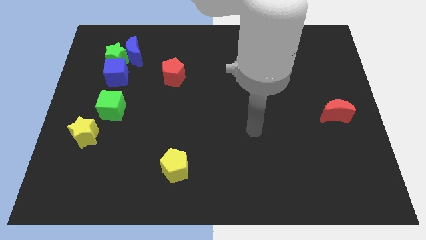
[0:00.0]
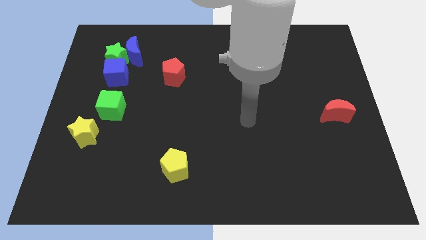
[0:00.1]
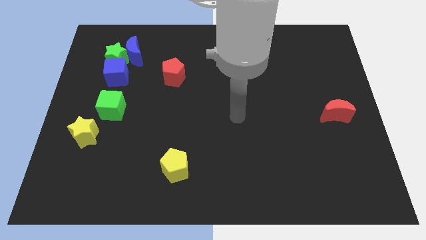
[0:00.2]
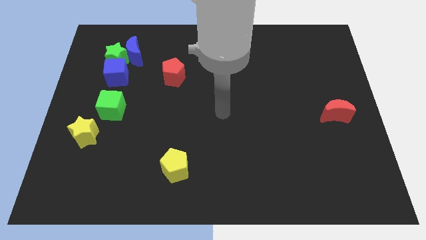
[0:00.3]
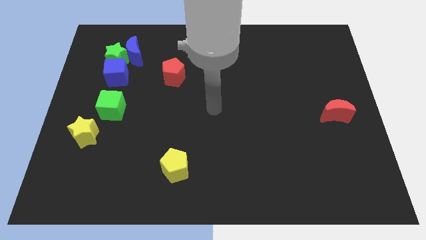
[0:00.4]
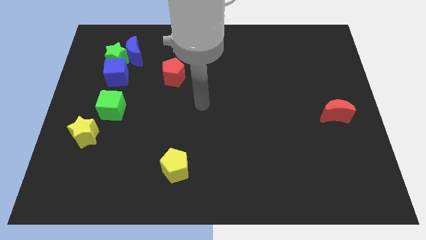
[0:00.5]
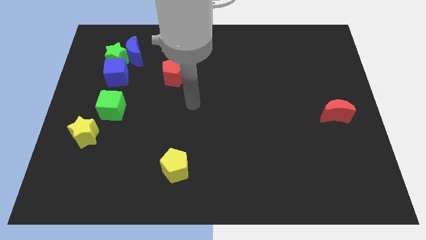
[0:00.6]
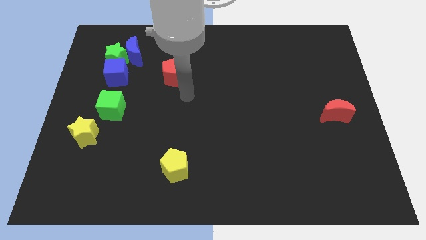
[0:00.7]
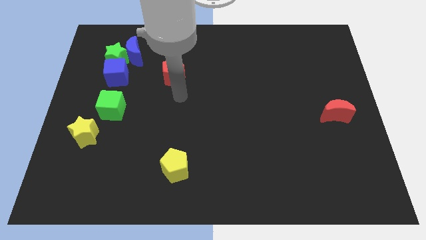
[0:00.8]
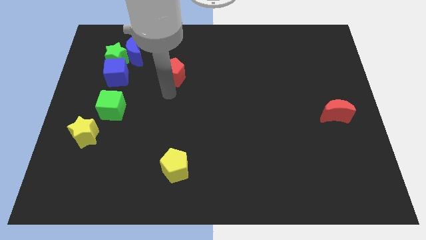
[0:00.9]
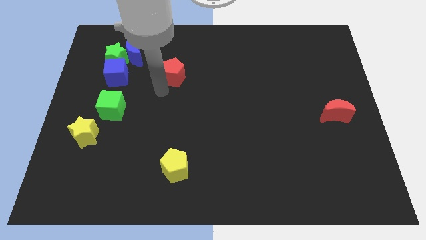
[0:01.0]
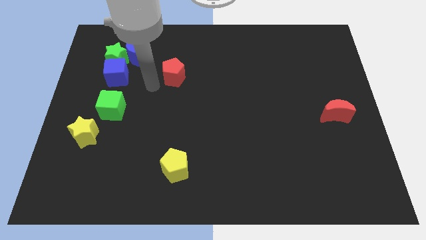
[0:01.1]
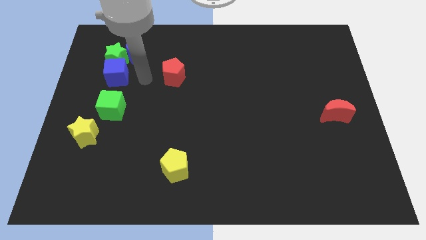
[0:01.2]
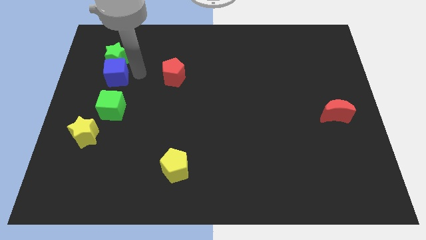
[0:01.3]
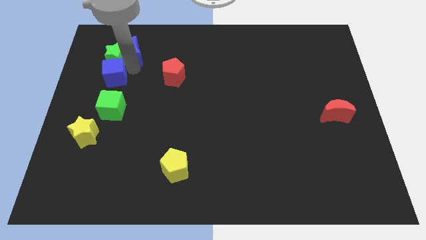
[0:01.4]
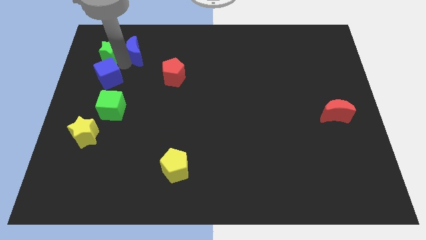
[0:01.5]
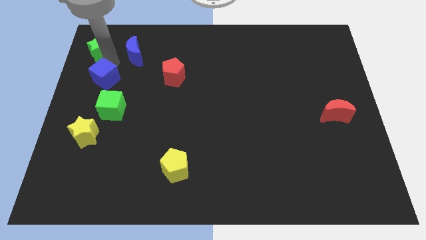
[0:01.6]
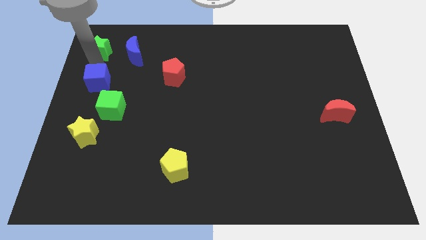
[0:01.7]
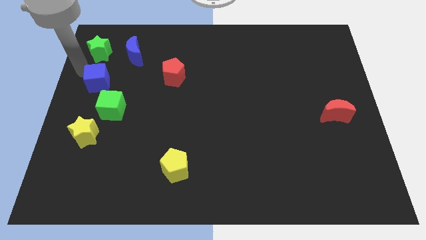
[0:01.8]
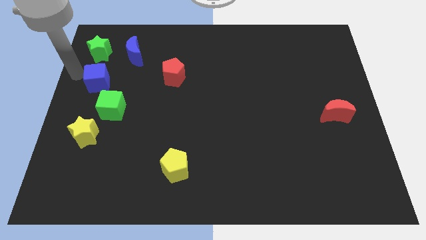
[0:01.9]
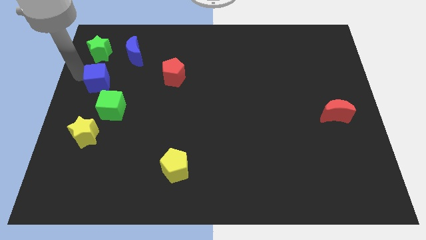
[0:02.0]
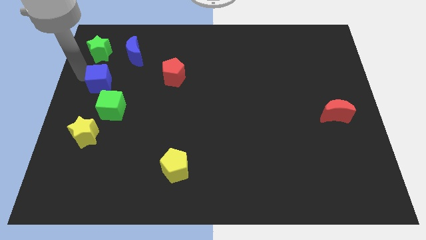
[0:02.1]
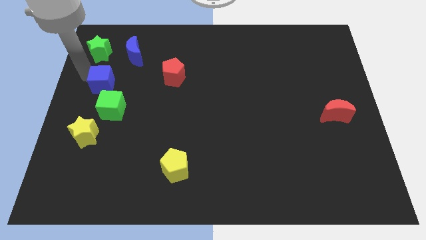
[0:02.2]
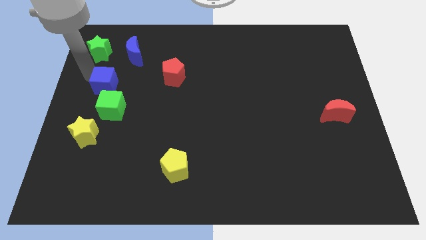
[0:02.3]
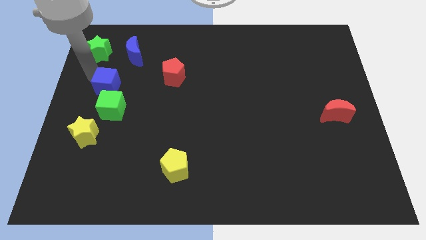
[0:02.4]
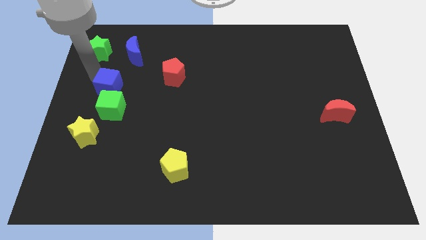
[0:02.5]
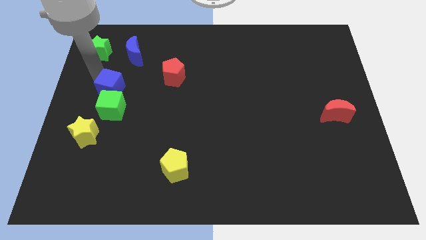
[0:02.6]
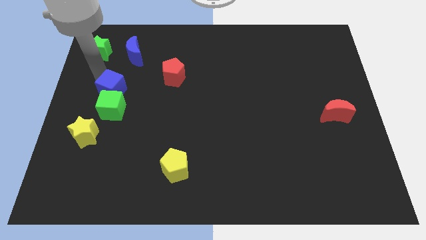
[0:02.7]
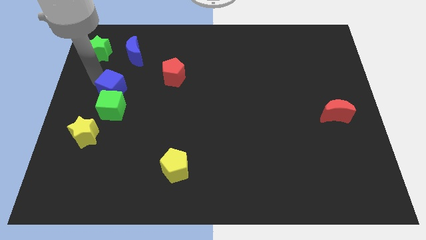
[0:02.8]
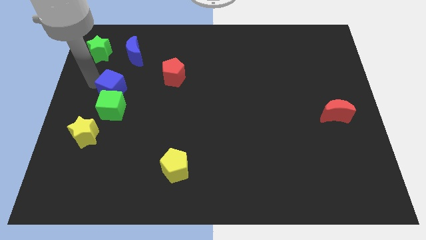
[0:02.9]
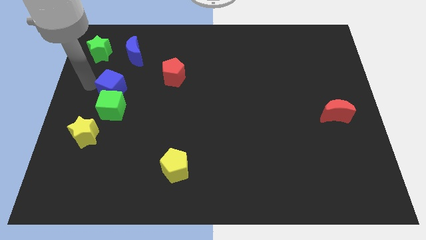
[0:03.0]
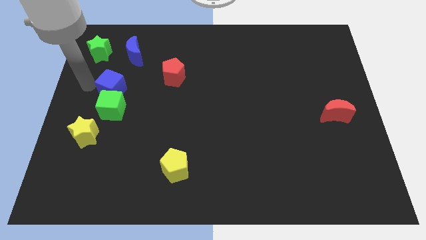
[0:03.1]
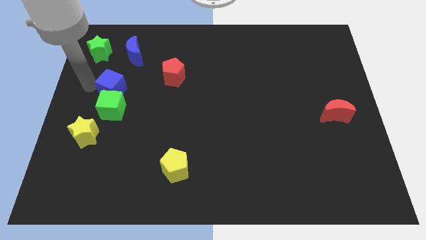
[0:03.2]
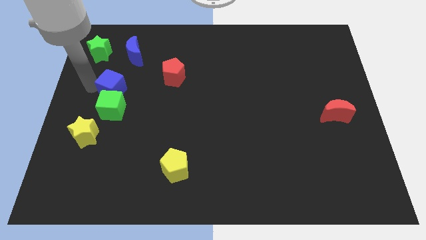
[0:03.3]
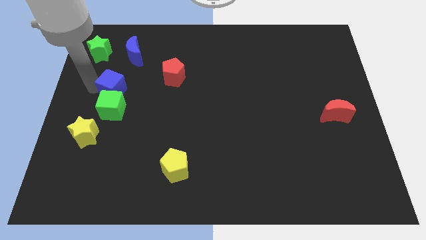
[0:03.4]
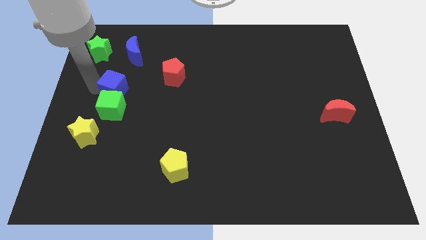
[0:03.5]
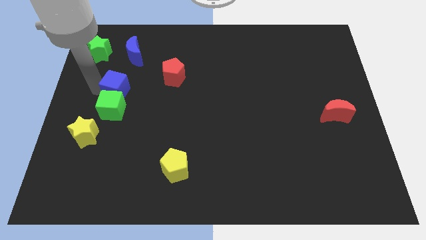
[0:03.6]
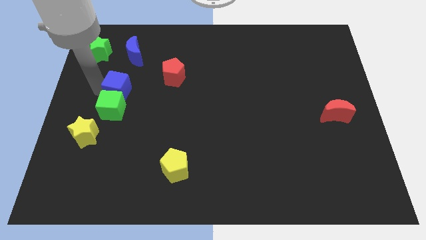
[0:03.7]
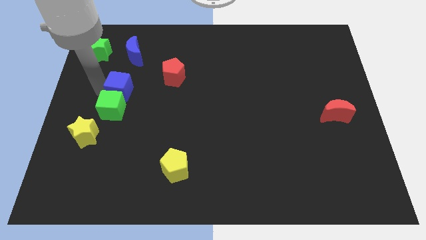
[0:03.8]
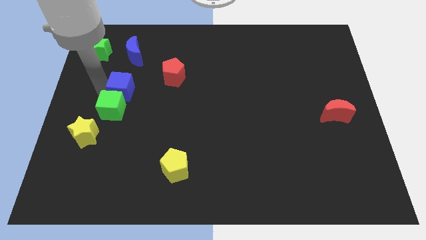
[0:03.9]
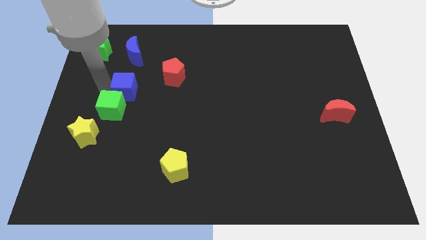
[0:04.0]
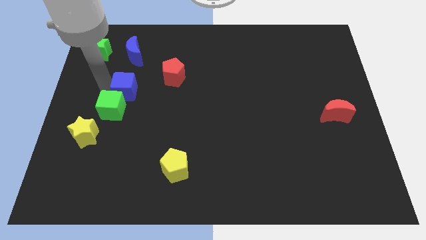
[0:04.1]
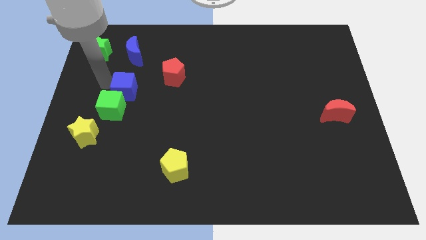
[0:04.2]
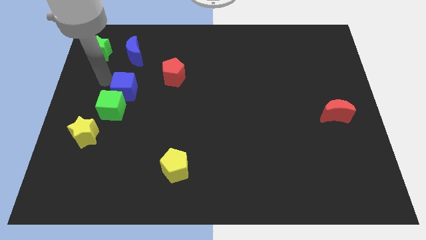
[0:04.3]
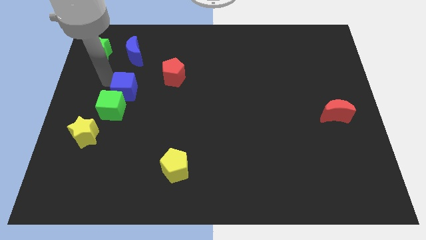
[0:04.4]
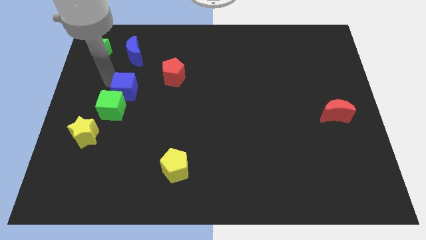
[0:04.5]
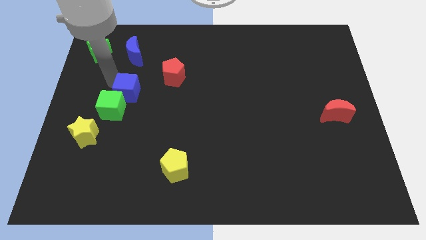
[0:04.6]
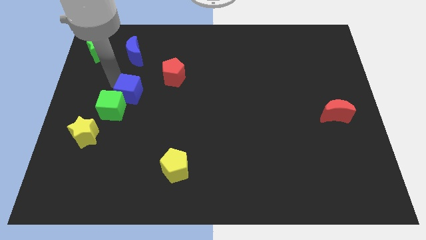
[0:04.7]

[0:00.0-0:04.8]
slightly push the blue cube diagonally down and to the right

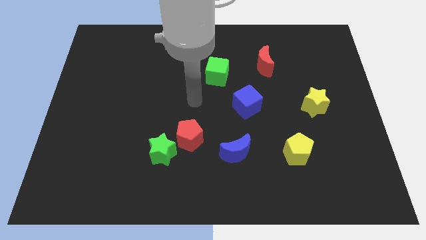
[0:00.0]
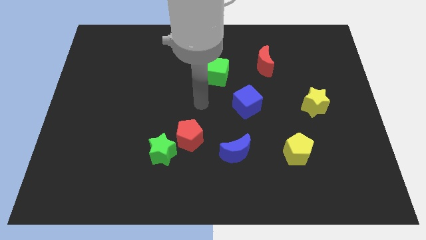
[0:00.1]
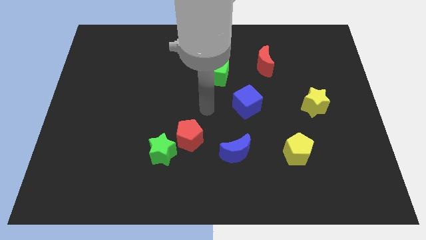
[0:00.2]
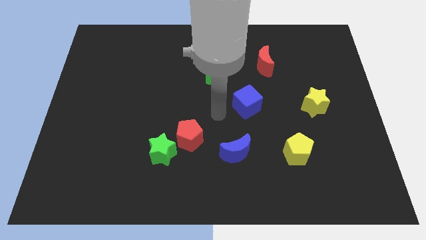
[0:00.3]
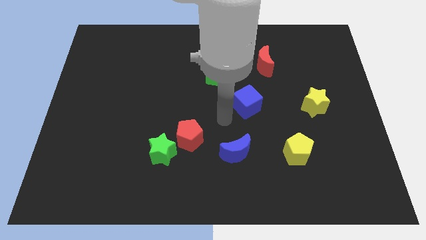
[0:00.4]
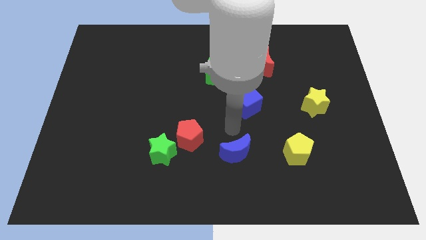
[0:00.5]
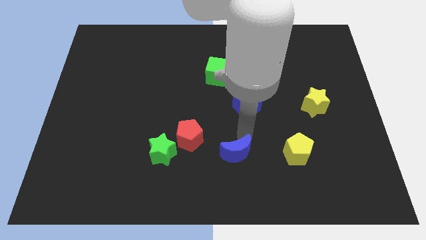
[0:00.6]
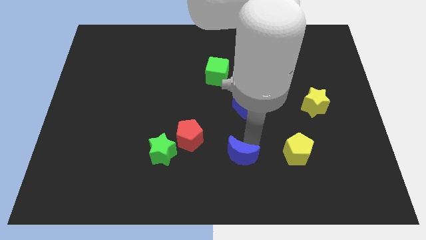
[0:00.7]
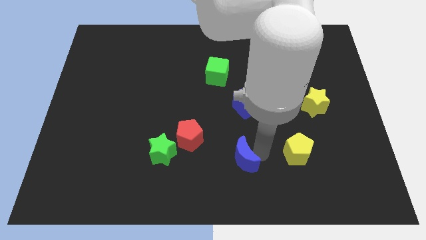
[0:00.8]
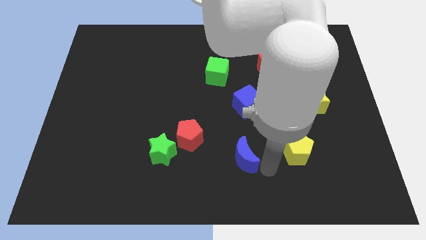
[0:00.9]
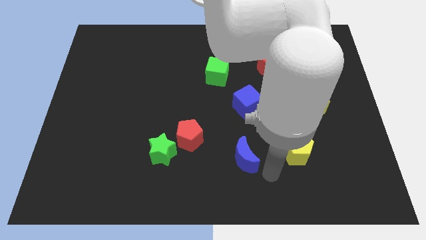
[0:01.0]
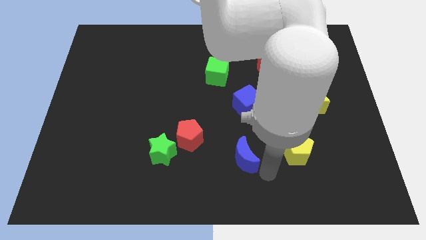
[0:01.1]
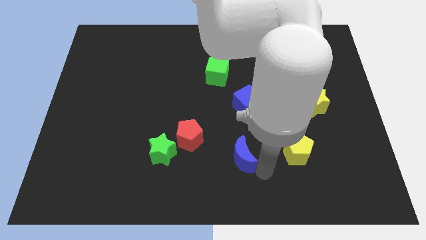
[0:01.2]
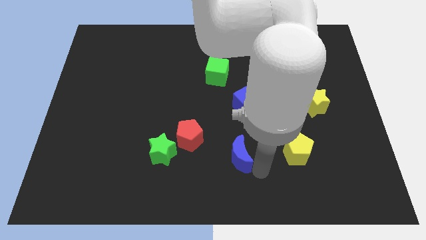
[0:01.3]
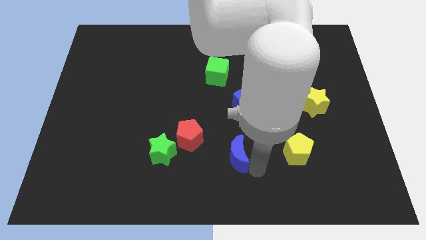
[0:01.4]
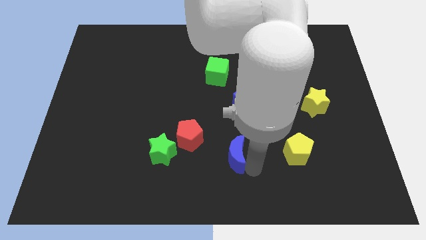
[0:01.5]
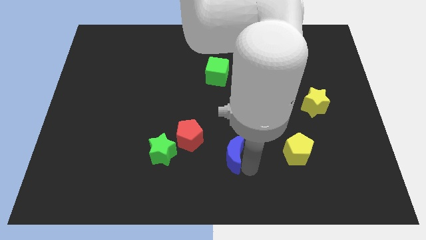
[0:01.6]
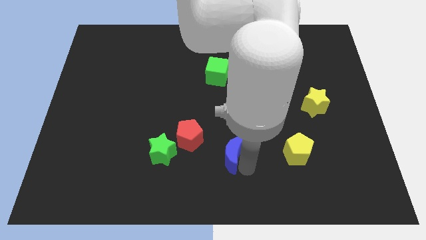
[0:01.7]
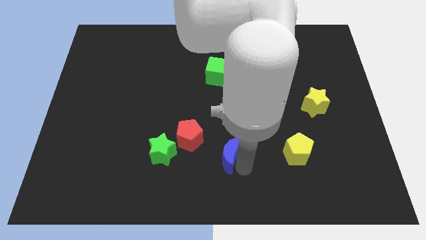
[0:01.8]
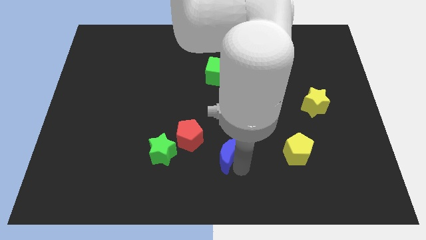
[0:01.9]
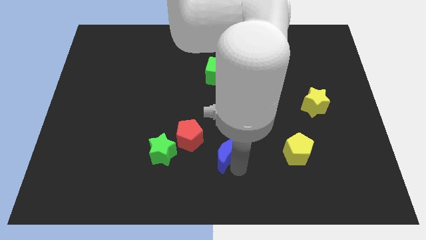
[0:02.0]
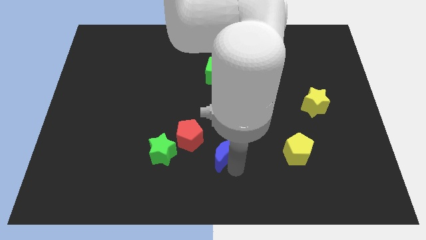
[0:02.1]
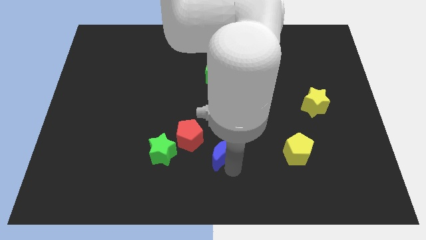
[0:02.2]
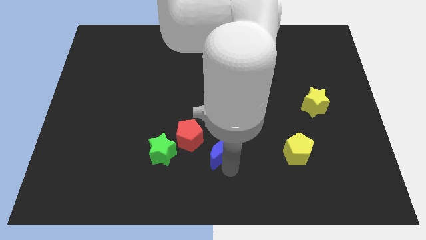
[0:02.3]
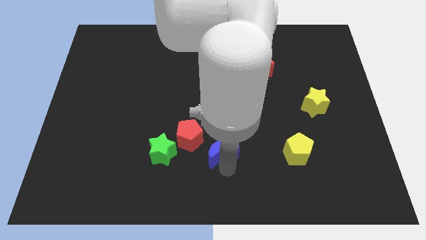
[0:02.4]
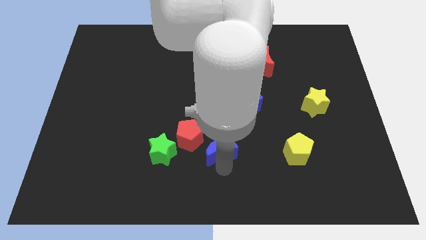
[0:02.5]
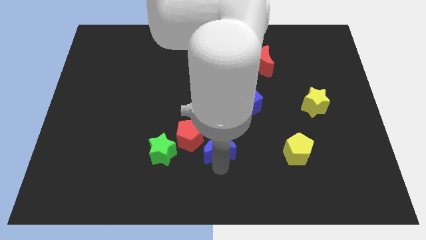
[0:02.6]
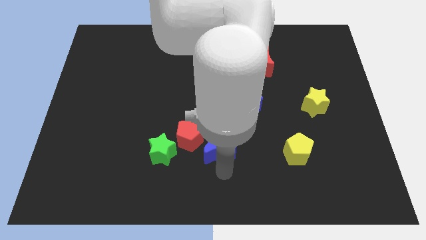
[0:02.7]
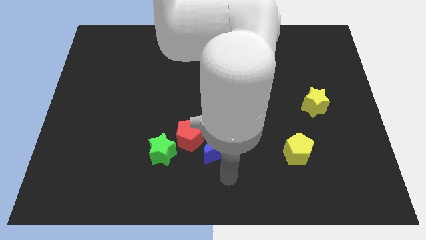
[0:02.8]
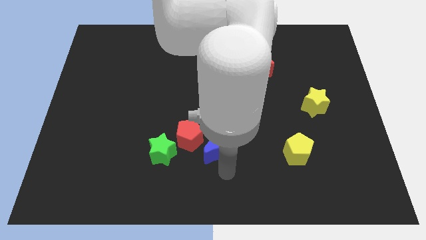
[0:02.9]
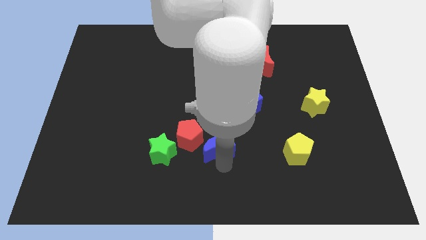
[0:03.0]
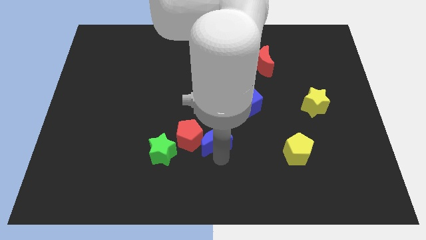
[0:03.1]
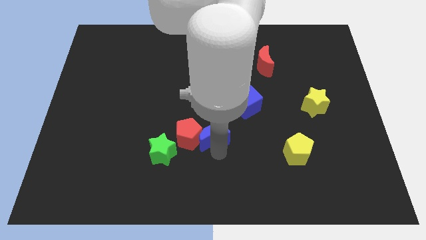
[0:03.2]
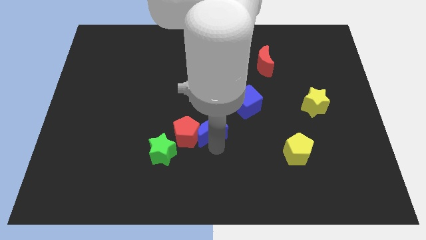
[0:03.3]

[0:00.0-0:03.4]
move the blue moon upwards and then to the left somewhat
